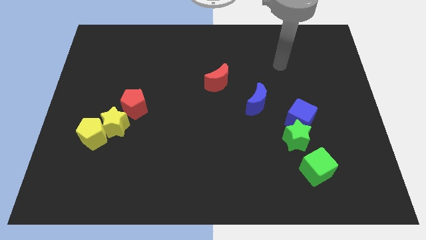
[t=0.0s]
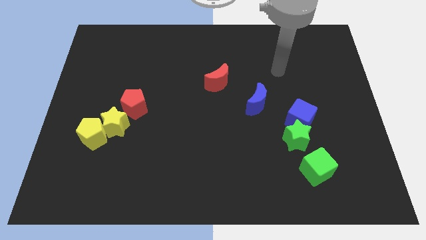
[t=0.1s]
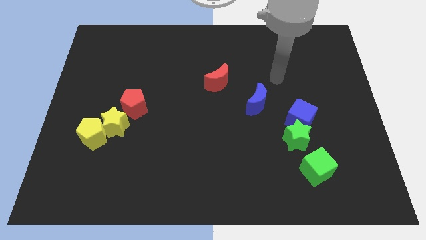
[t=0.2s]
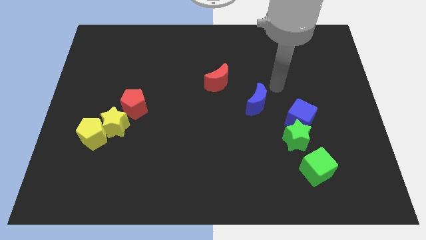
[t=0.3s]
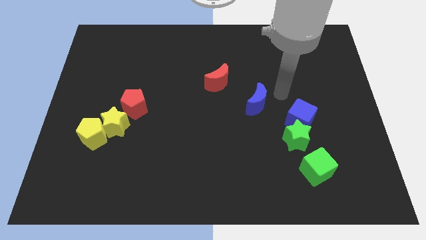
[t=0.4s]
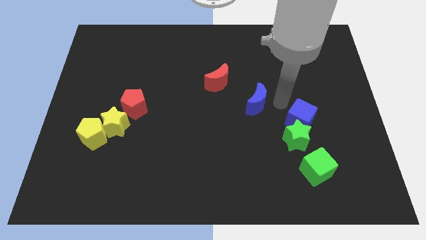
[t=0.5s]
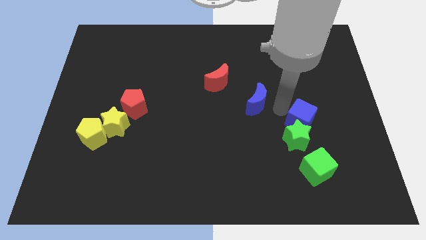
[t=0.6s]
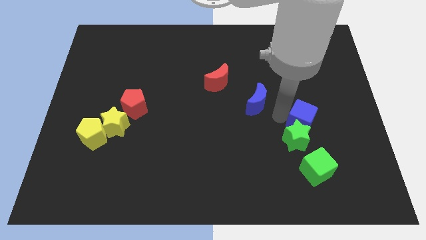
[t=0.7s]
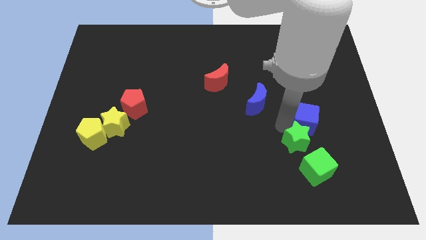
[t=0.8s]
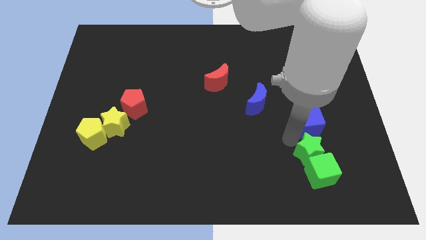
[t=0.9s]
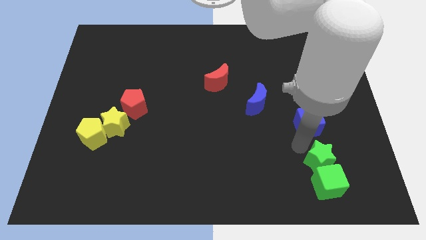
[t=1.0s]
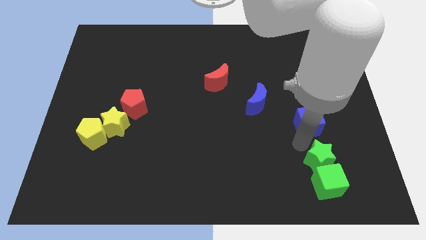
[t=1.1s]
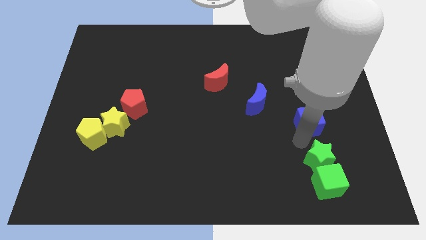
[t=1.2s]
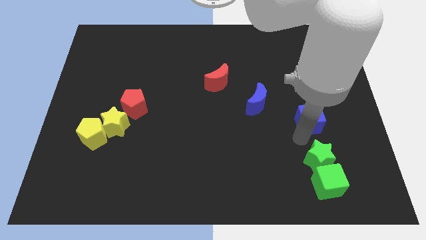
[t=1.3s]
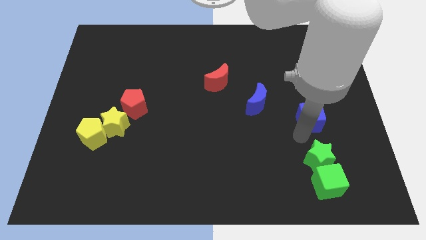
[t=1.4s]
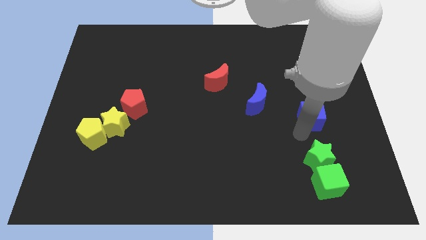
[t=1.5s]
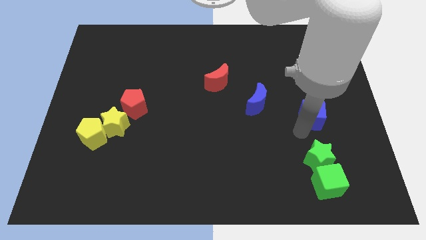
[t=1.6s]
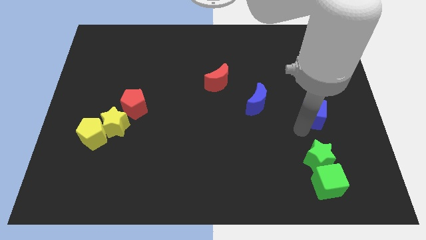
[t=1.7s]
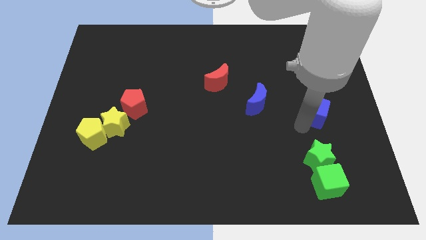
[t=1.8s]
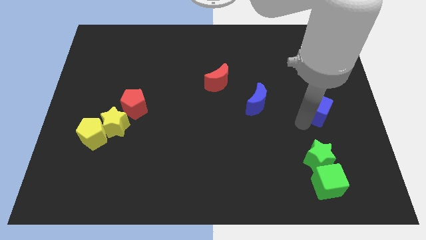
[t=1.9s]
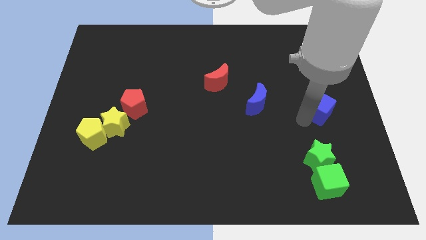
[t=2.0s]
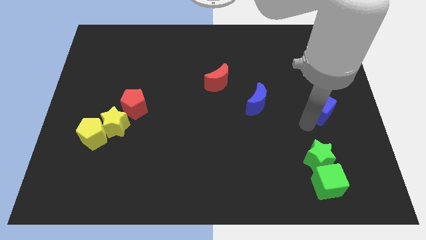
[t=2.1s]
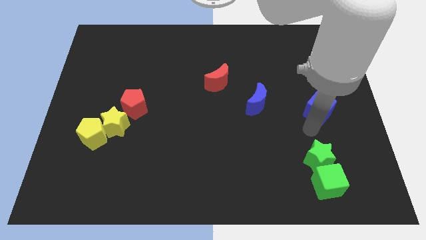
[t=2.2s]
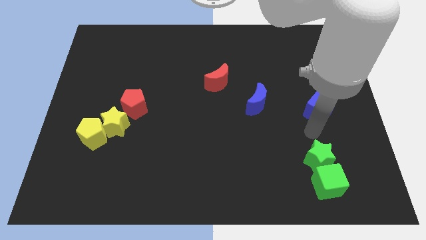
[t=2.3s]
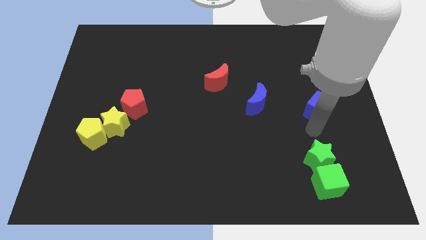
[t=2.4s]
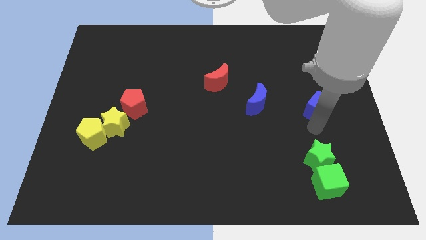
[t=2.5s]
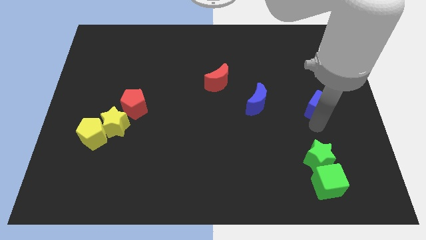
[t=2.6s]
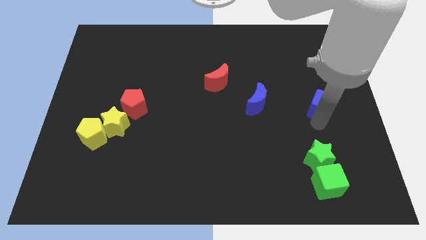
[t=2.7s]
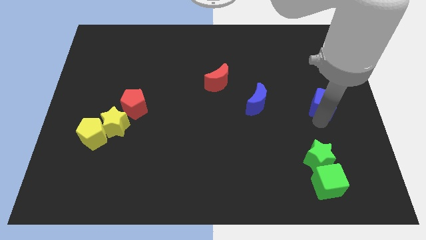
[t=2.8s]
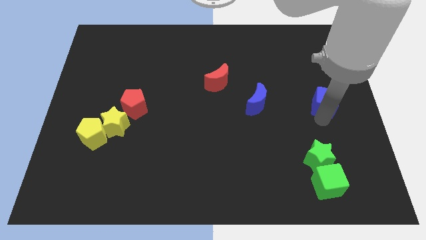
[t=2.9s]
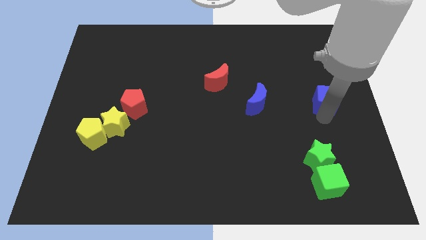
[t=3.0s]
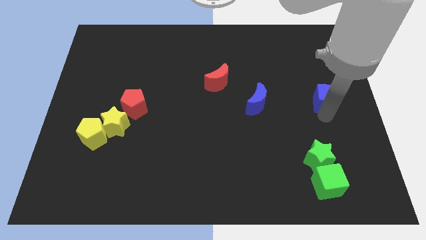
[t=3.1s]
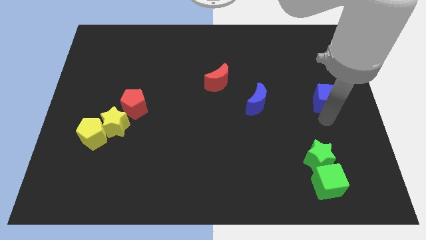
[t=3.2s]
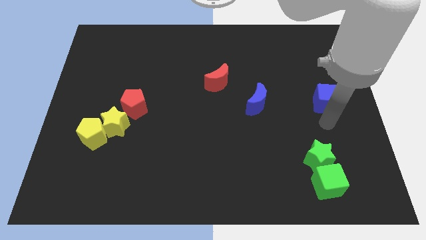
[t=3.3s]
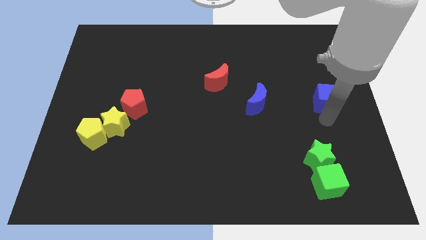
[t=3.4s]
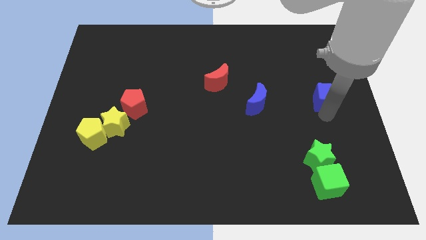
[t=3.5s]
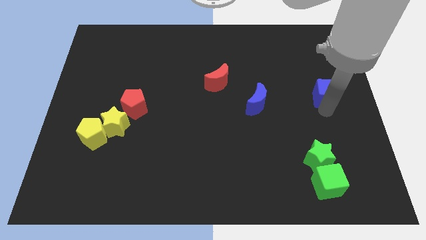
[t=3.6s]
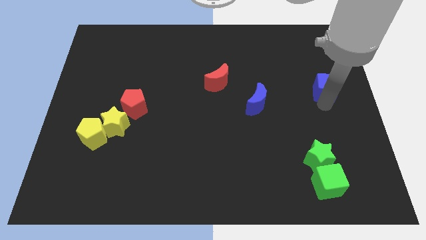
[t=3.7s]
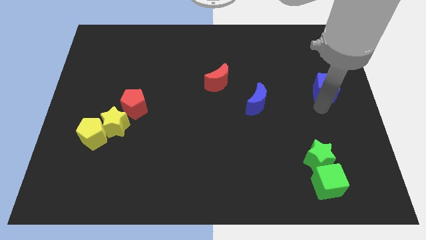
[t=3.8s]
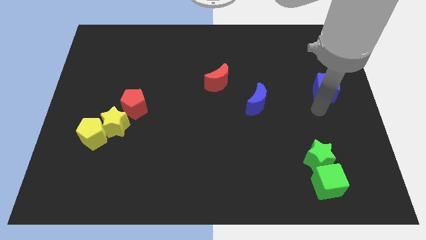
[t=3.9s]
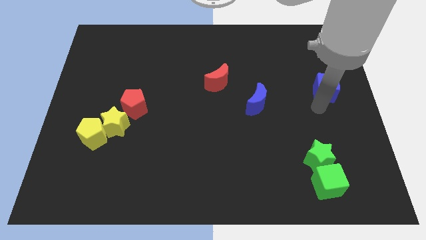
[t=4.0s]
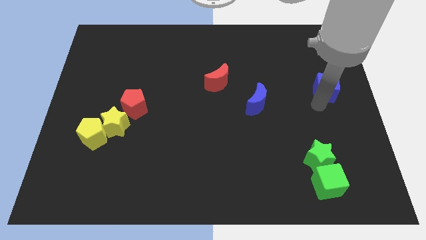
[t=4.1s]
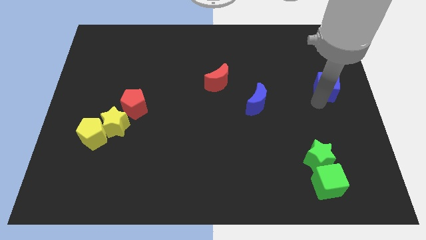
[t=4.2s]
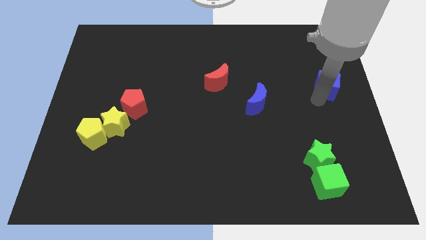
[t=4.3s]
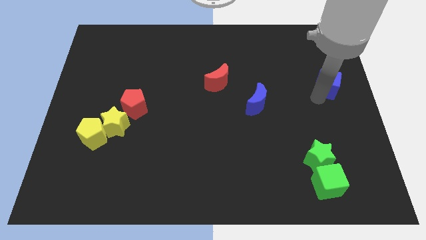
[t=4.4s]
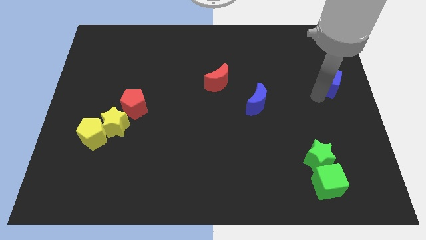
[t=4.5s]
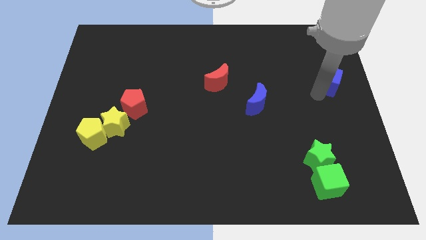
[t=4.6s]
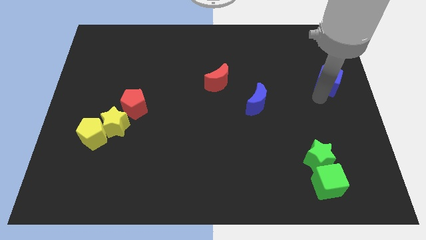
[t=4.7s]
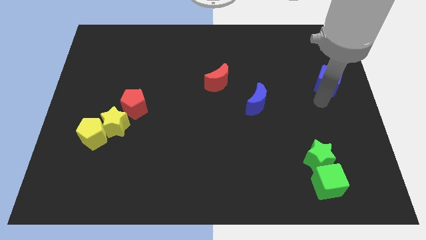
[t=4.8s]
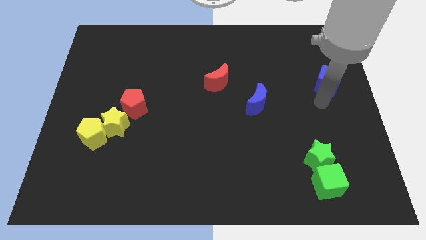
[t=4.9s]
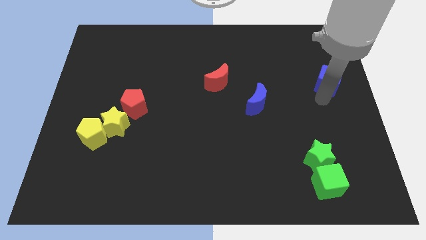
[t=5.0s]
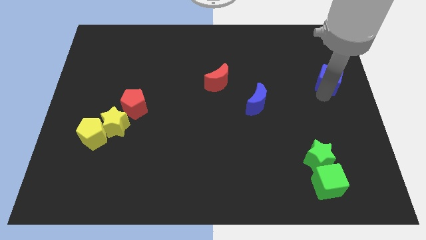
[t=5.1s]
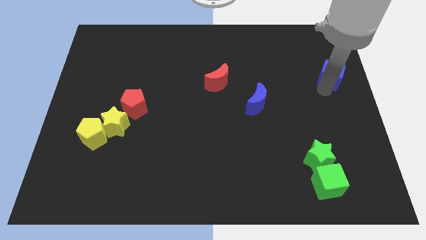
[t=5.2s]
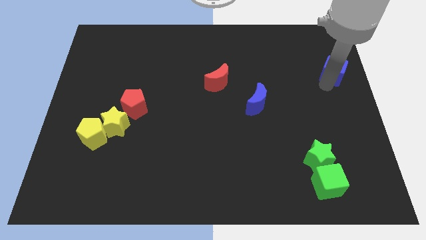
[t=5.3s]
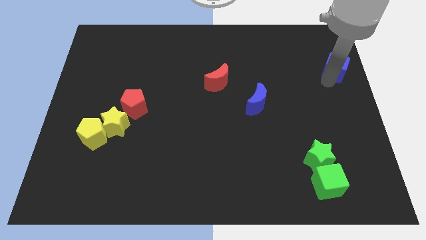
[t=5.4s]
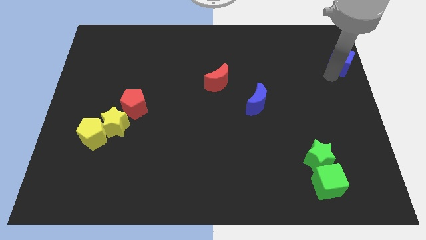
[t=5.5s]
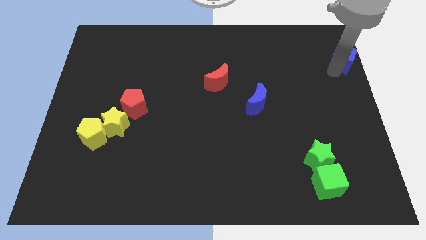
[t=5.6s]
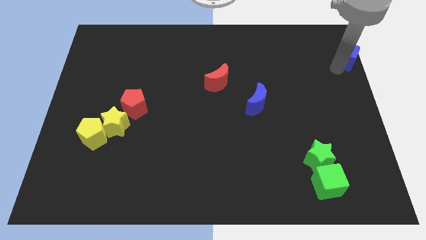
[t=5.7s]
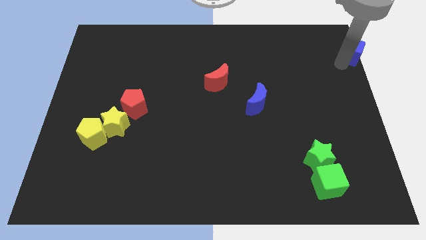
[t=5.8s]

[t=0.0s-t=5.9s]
slide the blue cube to the top right corner
